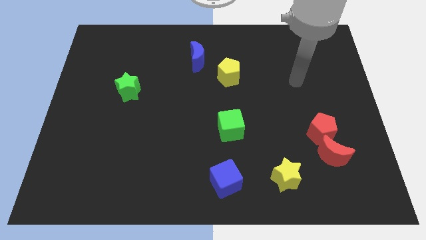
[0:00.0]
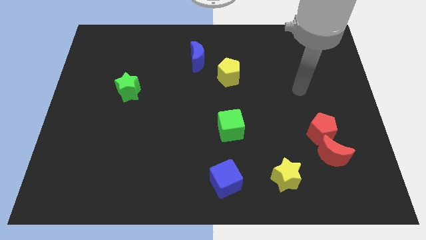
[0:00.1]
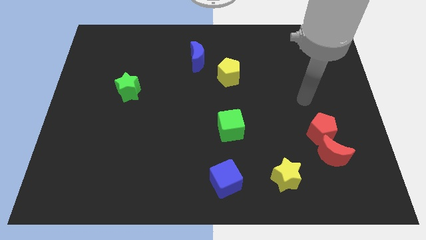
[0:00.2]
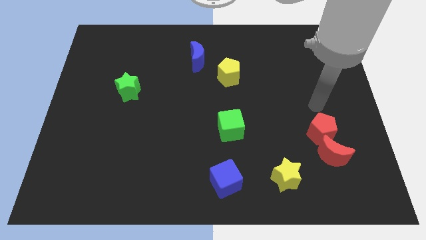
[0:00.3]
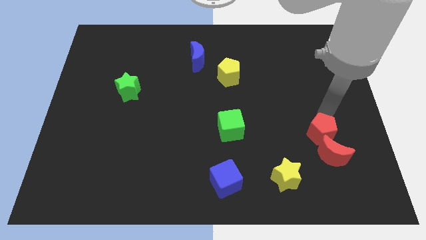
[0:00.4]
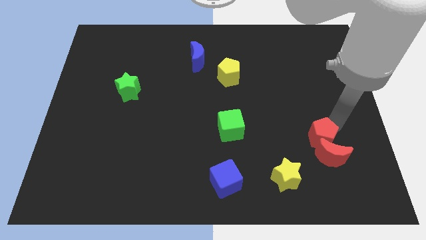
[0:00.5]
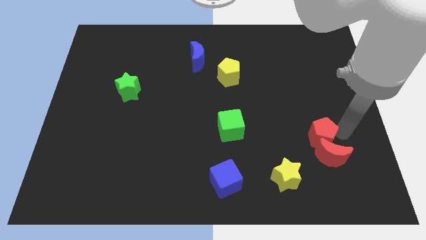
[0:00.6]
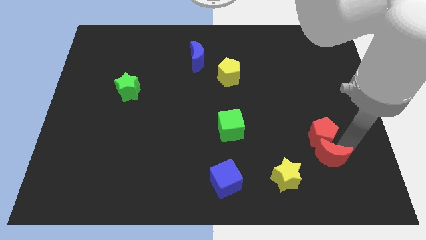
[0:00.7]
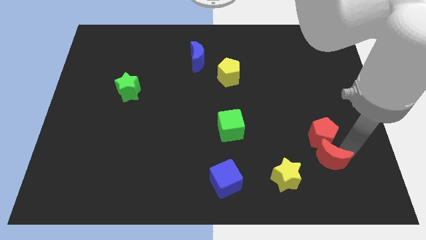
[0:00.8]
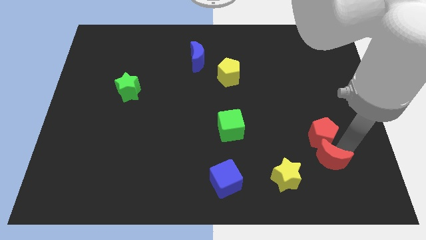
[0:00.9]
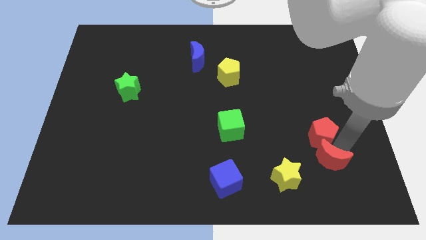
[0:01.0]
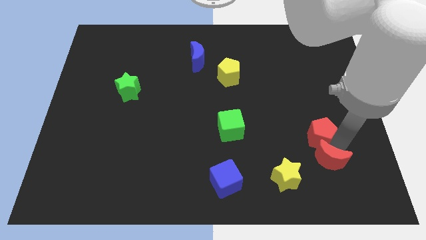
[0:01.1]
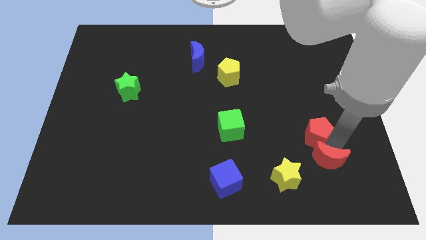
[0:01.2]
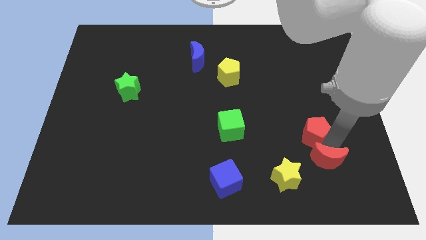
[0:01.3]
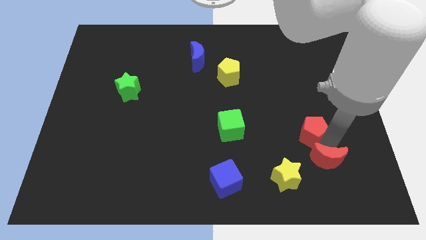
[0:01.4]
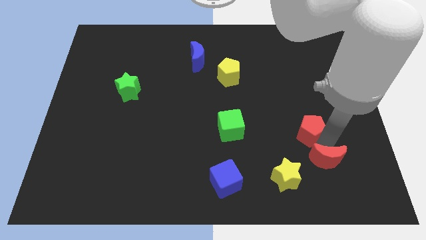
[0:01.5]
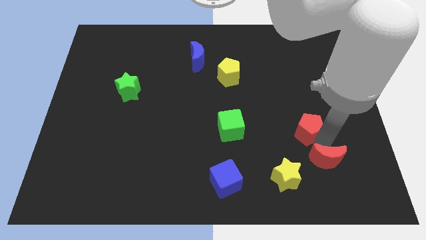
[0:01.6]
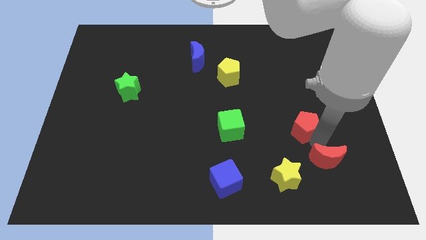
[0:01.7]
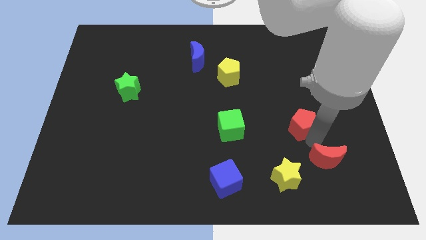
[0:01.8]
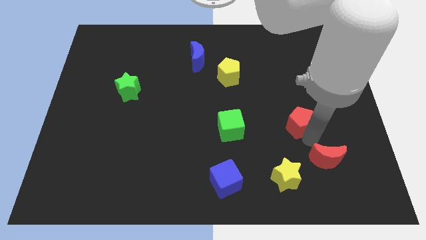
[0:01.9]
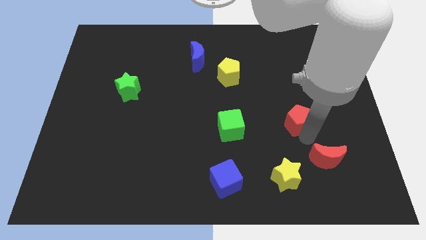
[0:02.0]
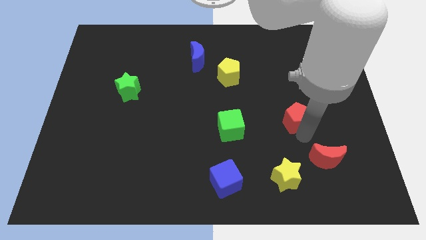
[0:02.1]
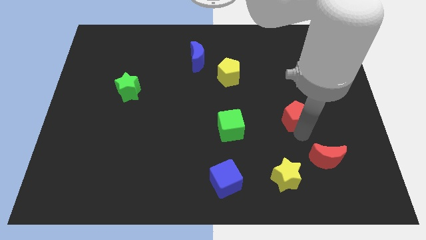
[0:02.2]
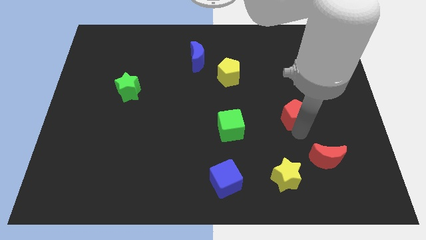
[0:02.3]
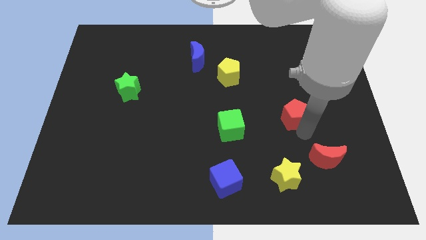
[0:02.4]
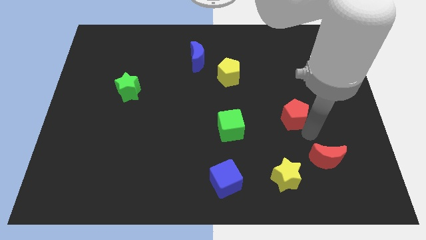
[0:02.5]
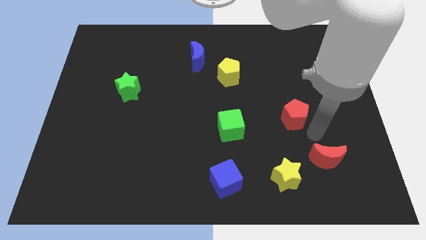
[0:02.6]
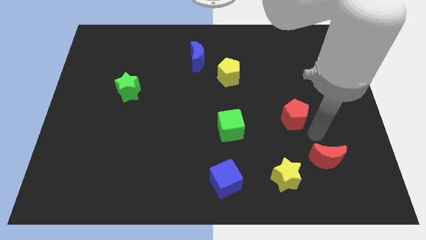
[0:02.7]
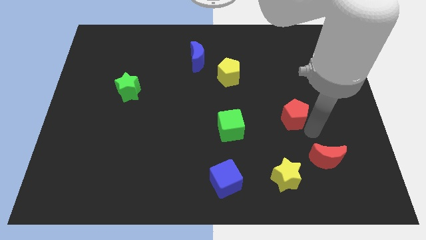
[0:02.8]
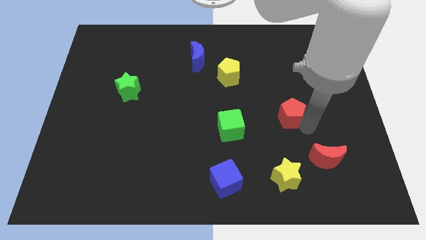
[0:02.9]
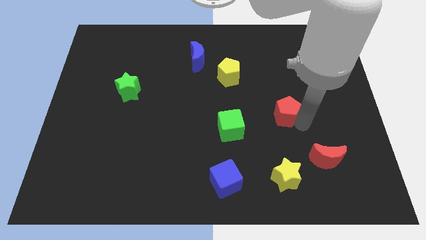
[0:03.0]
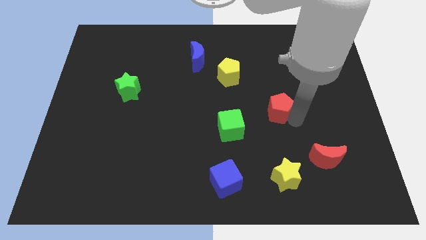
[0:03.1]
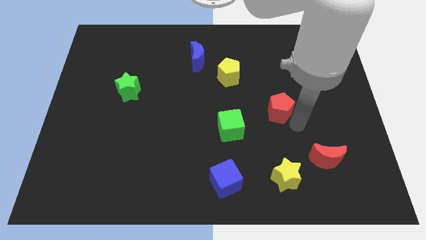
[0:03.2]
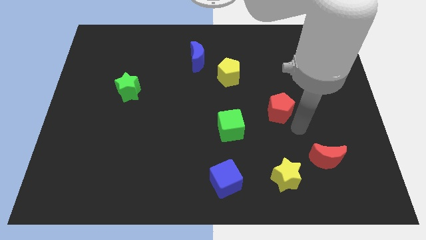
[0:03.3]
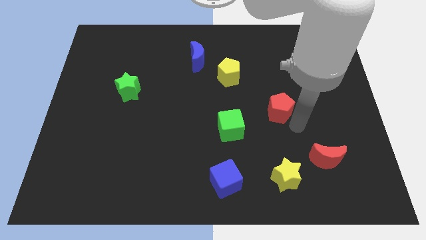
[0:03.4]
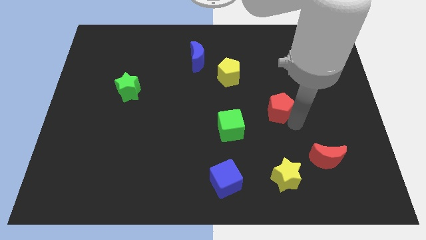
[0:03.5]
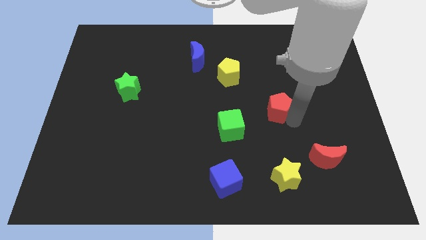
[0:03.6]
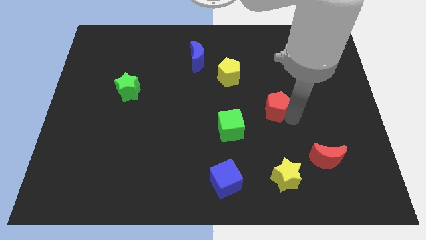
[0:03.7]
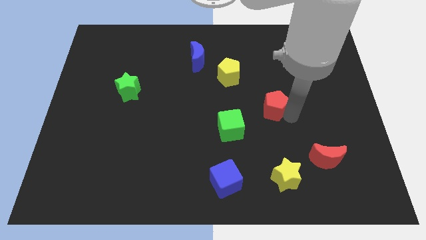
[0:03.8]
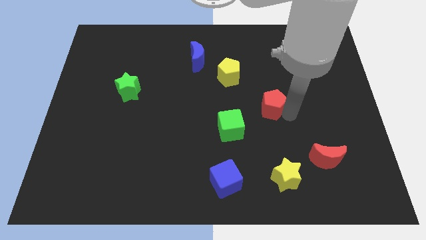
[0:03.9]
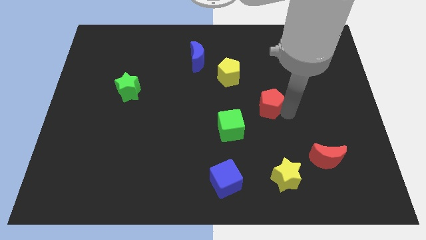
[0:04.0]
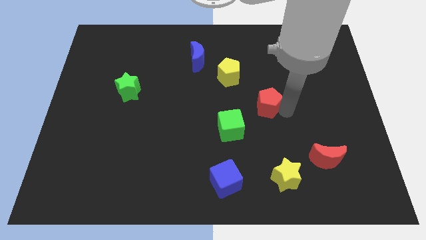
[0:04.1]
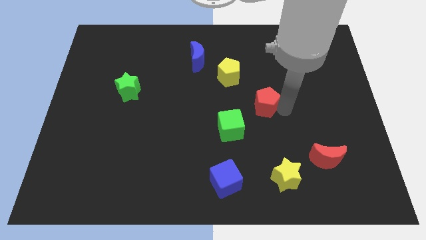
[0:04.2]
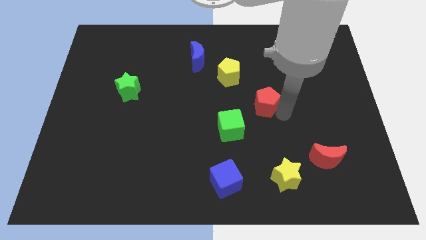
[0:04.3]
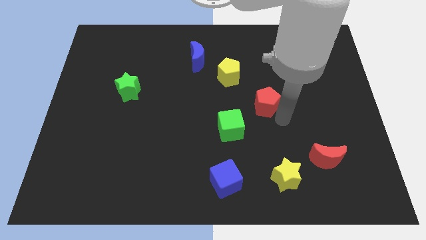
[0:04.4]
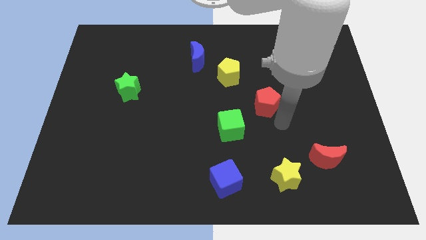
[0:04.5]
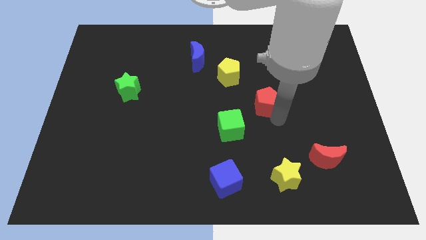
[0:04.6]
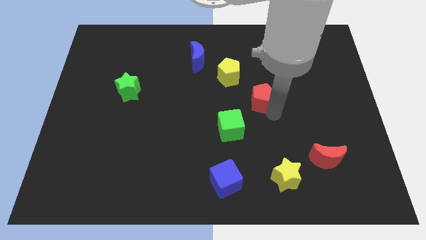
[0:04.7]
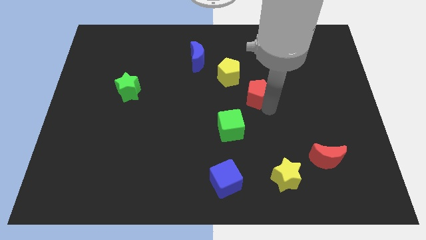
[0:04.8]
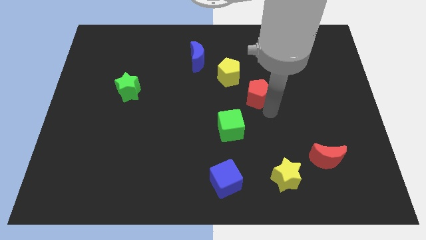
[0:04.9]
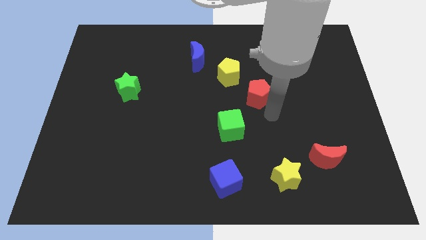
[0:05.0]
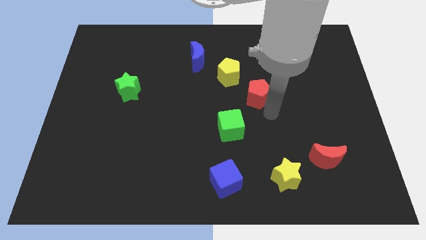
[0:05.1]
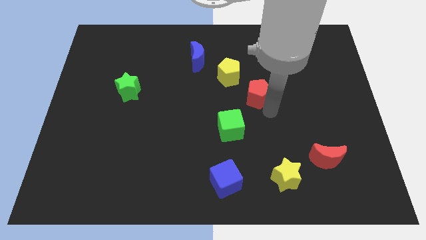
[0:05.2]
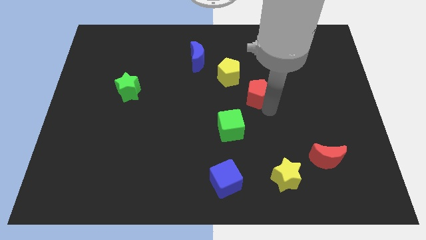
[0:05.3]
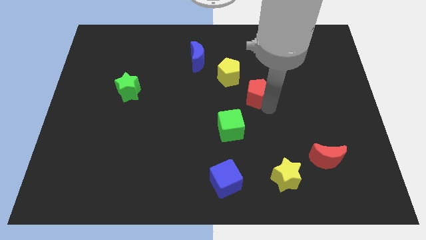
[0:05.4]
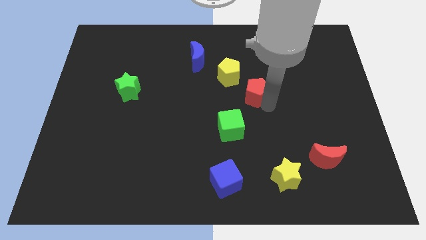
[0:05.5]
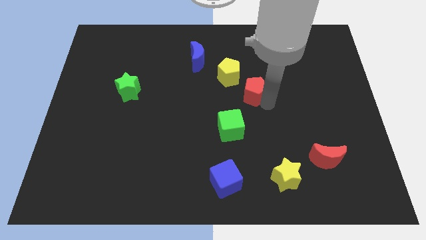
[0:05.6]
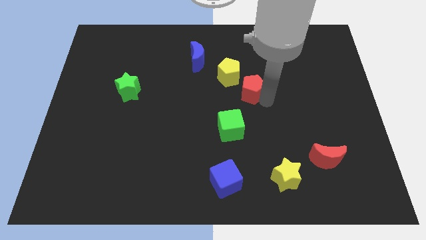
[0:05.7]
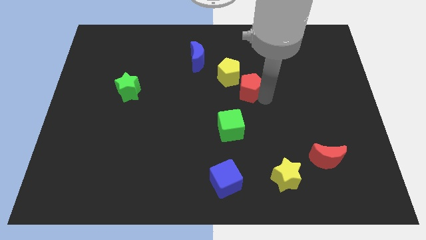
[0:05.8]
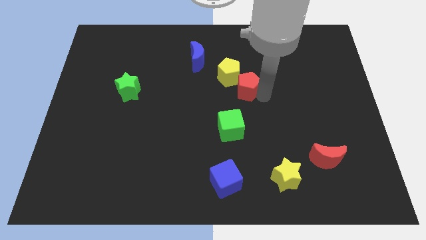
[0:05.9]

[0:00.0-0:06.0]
slide the red pentagon to the yellow pentagon
